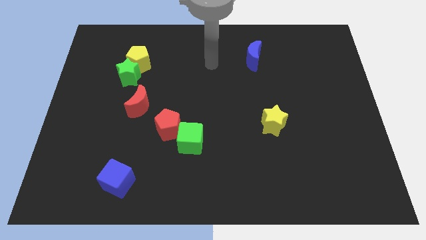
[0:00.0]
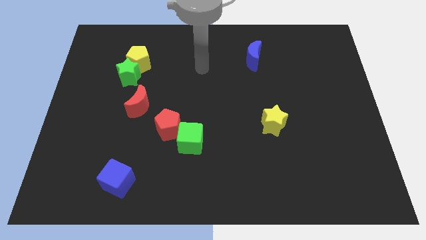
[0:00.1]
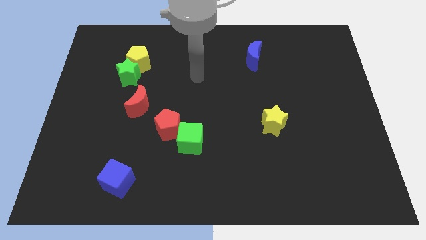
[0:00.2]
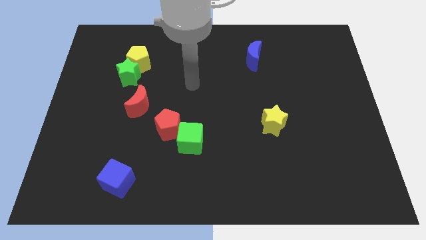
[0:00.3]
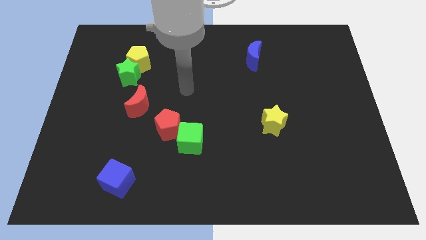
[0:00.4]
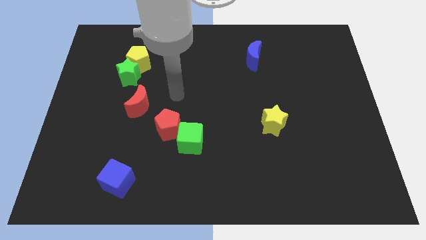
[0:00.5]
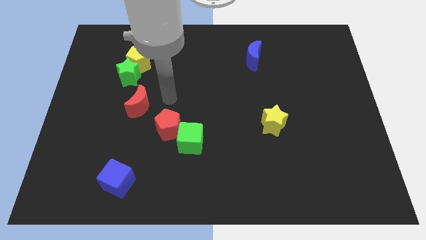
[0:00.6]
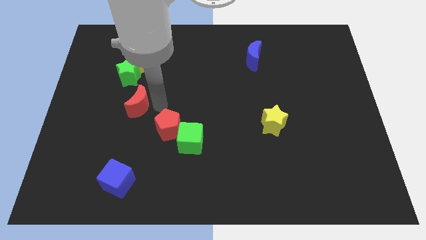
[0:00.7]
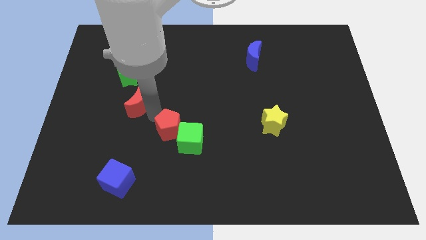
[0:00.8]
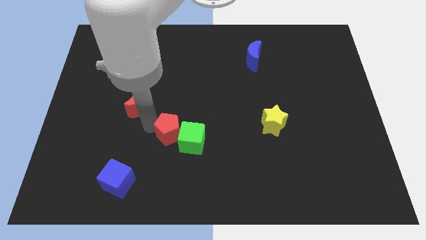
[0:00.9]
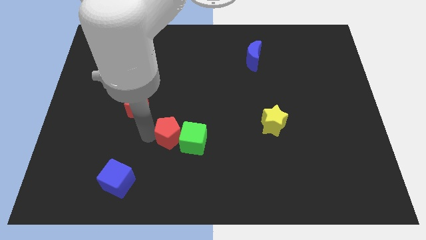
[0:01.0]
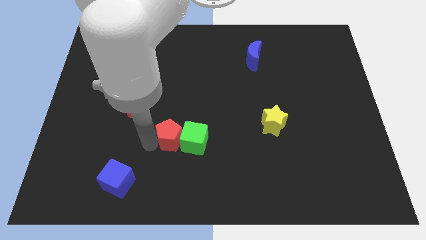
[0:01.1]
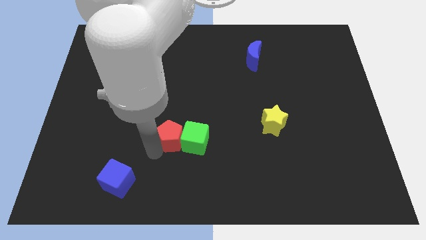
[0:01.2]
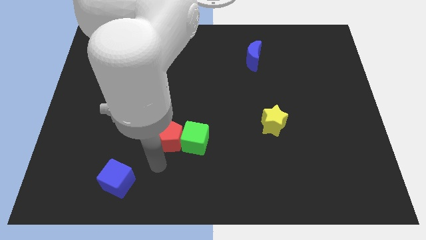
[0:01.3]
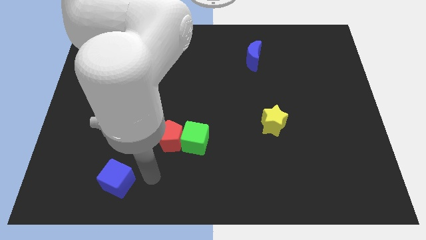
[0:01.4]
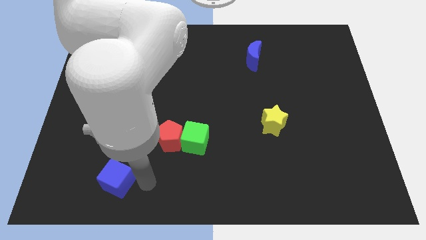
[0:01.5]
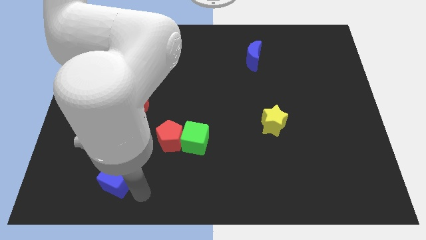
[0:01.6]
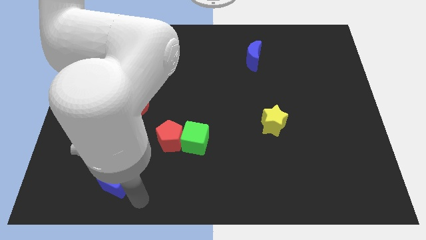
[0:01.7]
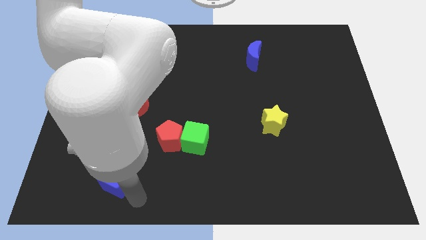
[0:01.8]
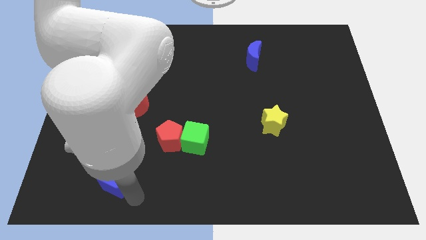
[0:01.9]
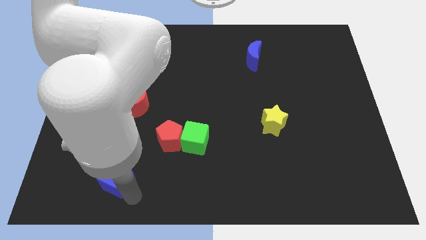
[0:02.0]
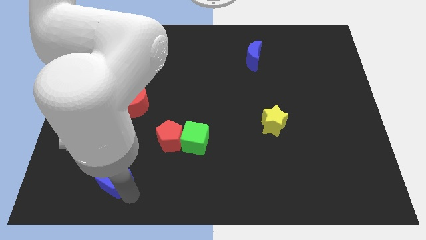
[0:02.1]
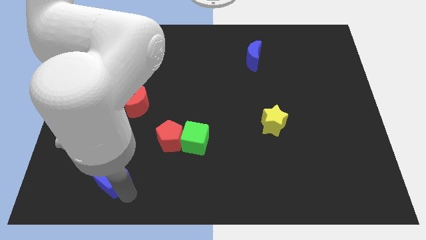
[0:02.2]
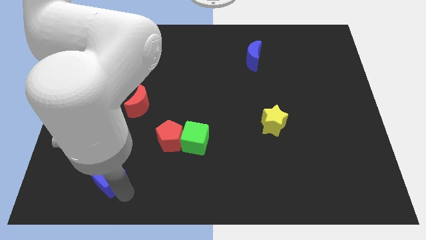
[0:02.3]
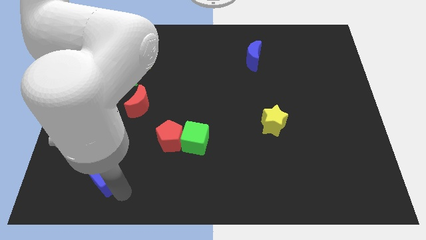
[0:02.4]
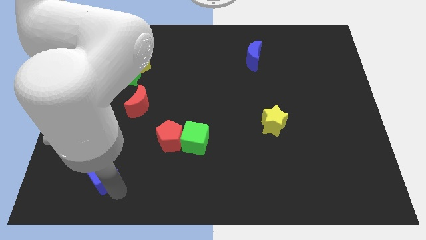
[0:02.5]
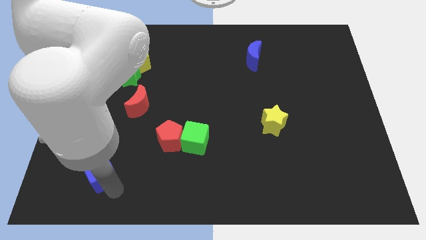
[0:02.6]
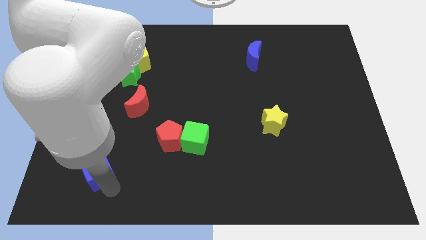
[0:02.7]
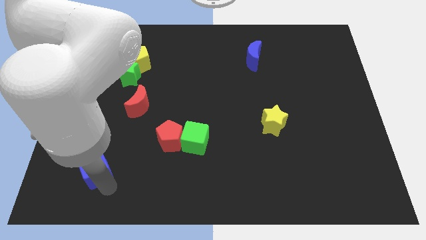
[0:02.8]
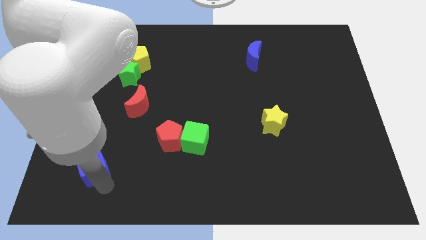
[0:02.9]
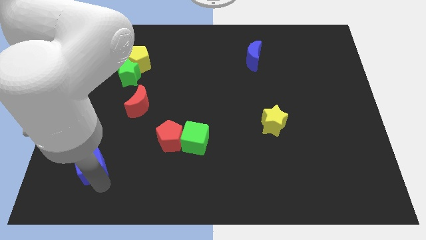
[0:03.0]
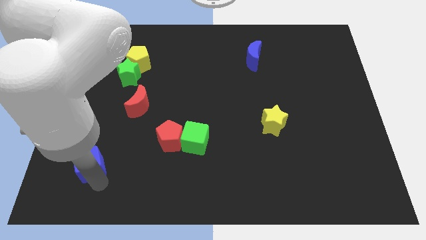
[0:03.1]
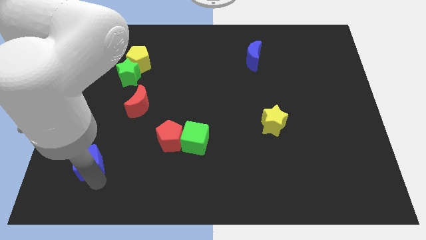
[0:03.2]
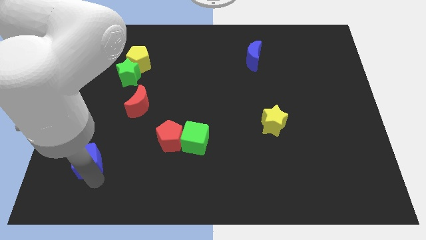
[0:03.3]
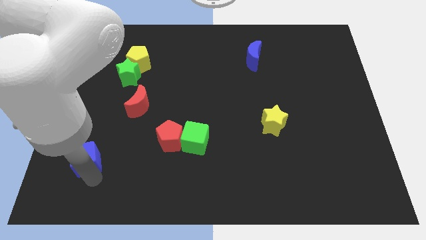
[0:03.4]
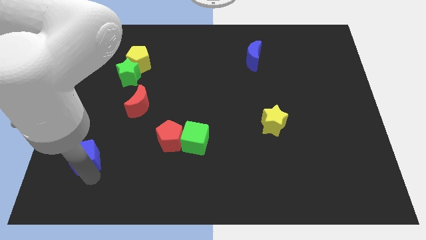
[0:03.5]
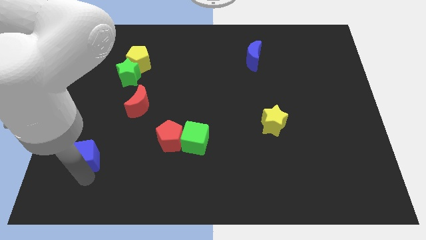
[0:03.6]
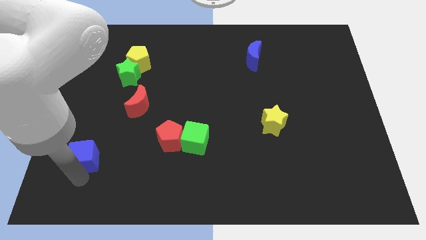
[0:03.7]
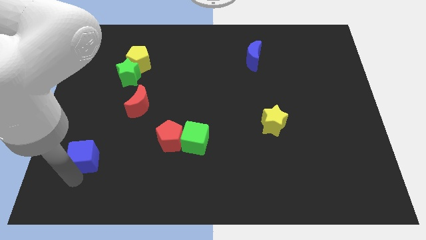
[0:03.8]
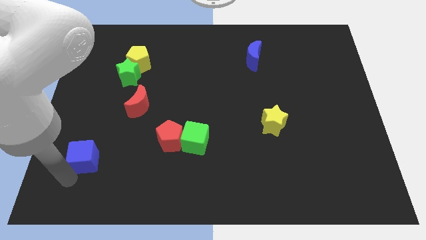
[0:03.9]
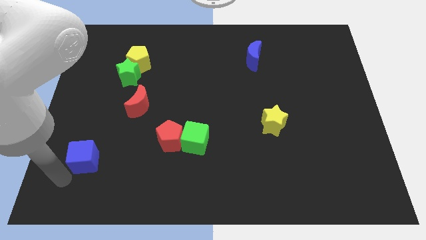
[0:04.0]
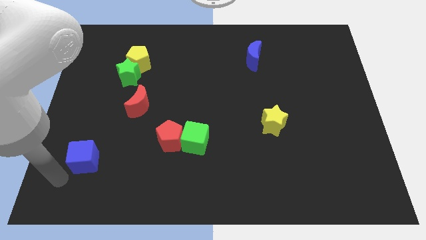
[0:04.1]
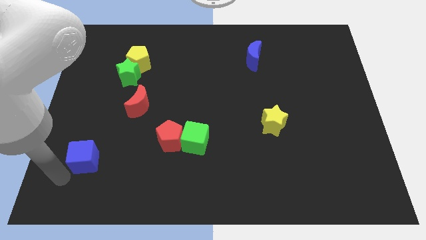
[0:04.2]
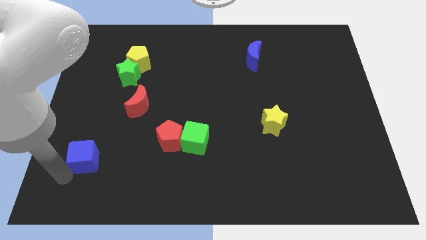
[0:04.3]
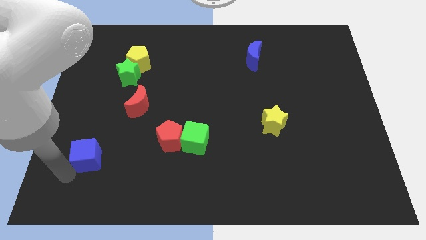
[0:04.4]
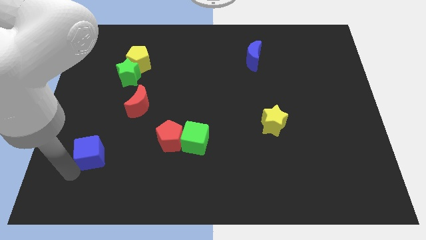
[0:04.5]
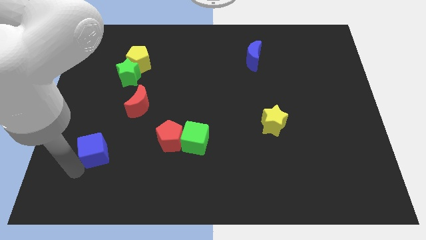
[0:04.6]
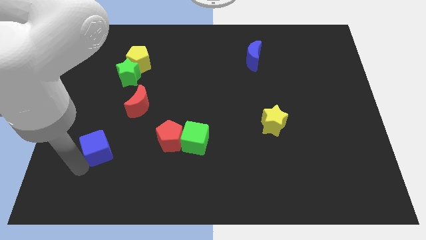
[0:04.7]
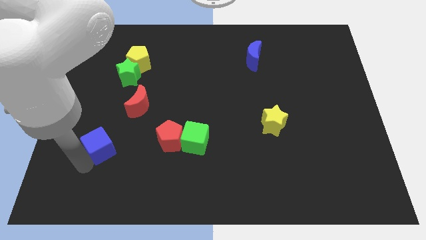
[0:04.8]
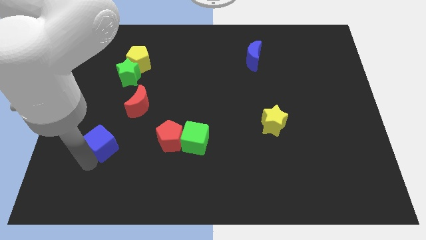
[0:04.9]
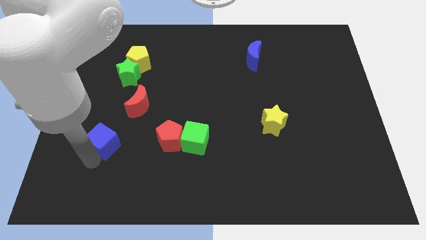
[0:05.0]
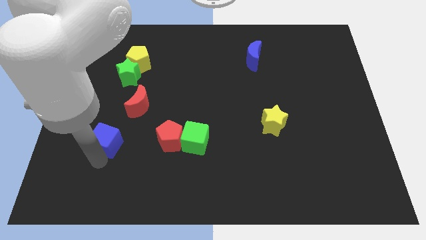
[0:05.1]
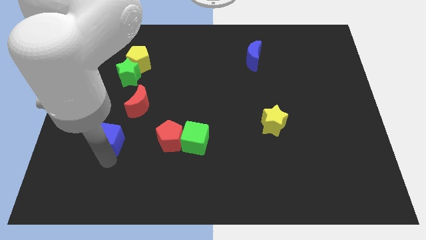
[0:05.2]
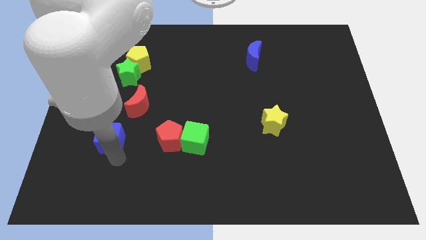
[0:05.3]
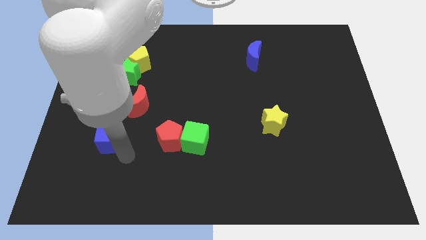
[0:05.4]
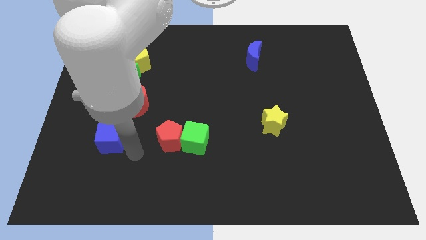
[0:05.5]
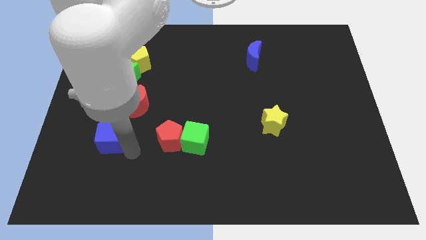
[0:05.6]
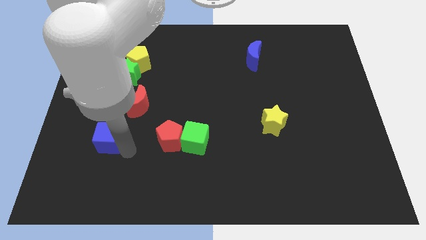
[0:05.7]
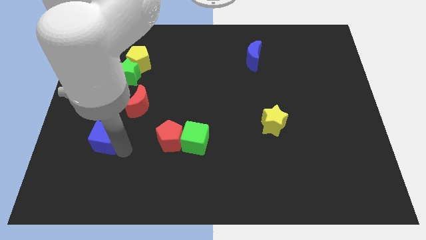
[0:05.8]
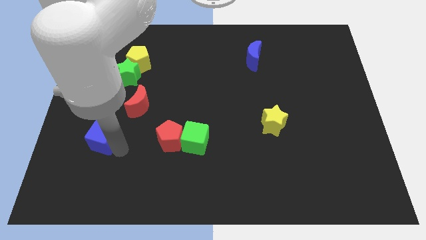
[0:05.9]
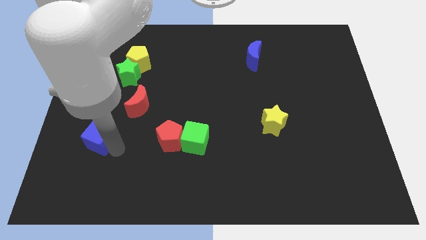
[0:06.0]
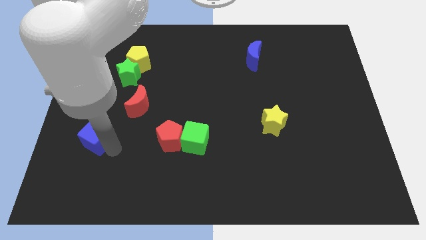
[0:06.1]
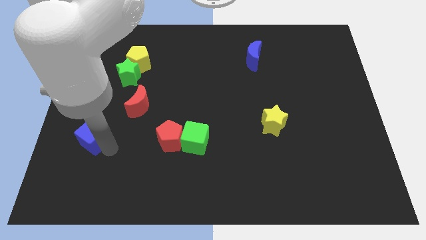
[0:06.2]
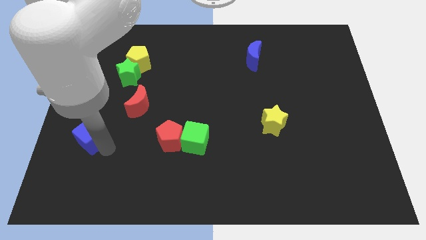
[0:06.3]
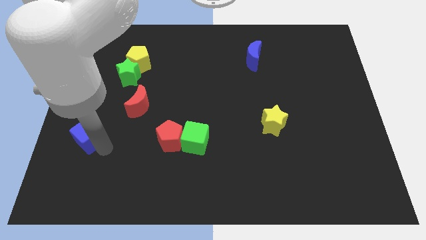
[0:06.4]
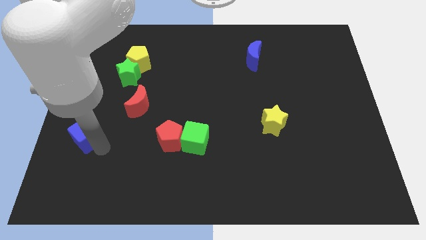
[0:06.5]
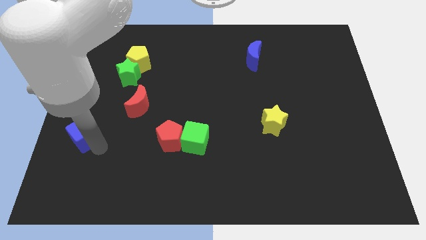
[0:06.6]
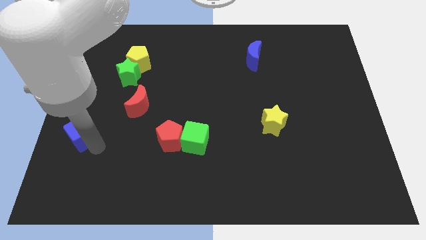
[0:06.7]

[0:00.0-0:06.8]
push the blue cube to the center left

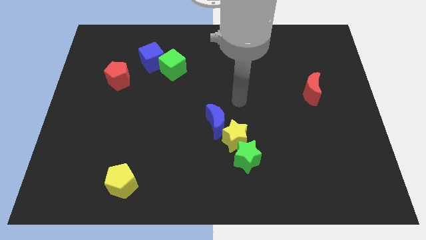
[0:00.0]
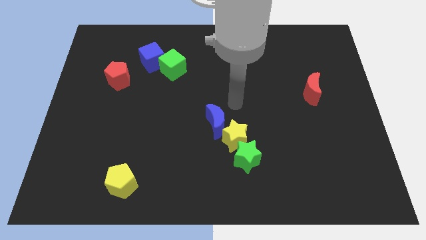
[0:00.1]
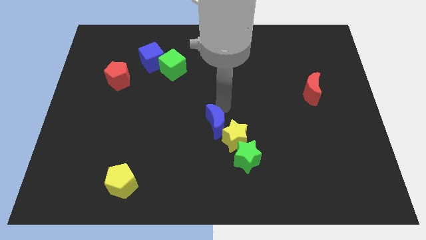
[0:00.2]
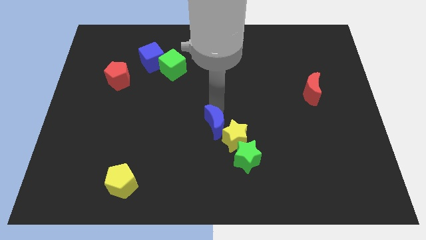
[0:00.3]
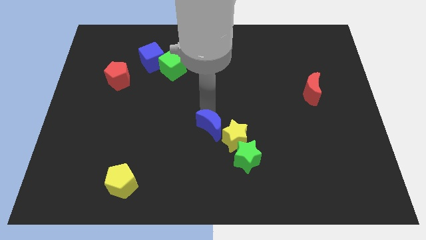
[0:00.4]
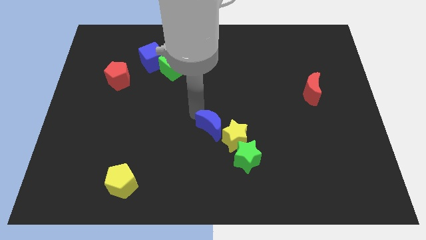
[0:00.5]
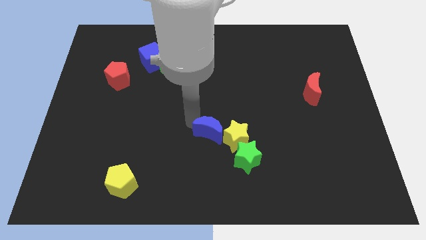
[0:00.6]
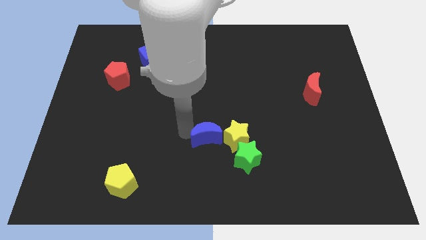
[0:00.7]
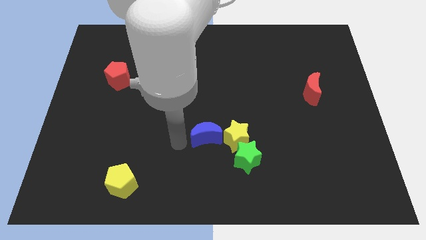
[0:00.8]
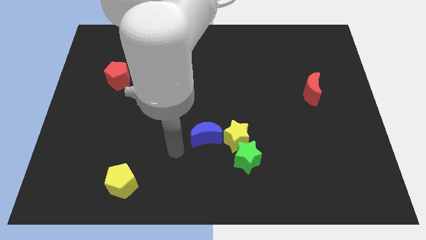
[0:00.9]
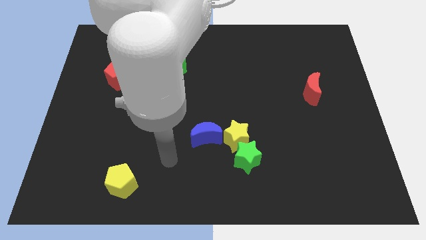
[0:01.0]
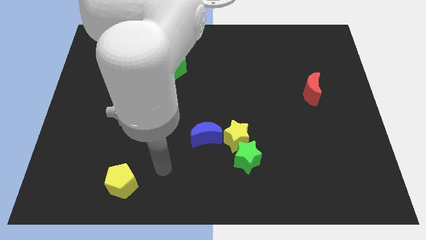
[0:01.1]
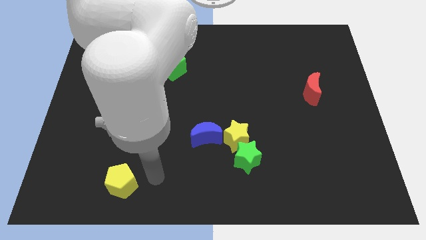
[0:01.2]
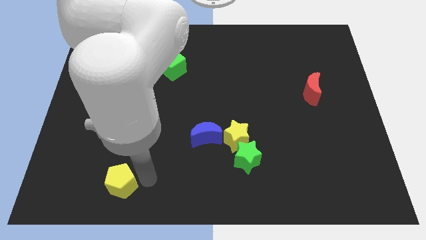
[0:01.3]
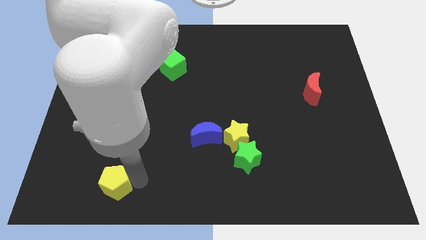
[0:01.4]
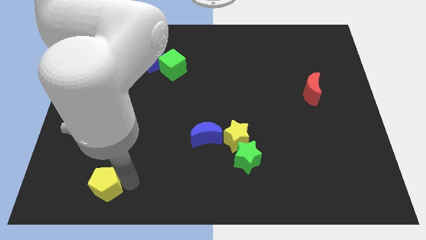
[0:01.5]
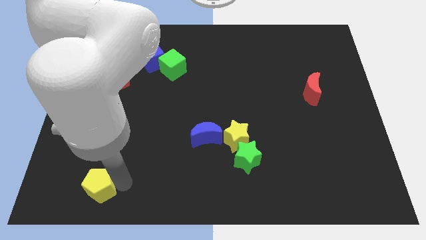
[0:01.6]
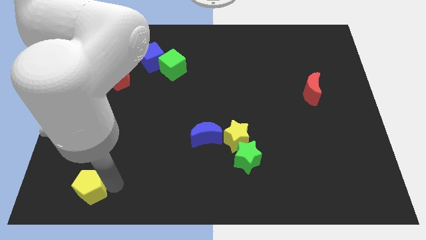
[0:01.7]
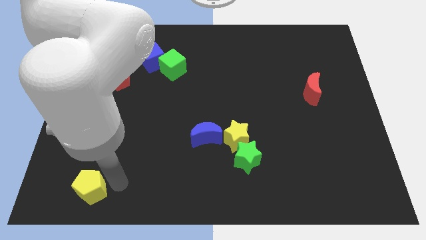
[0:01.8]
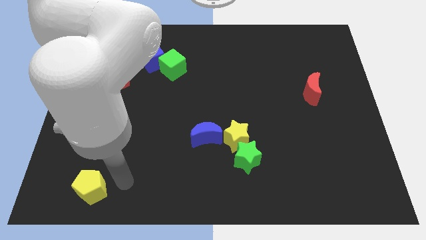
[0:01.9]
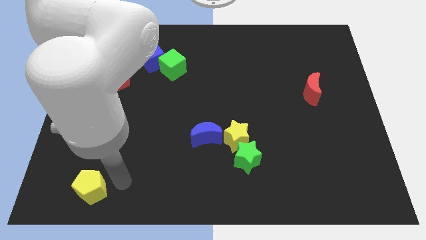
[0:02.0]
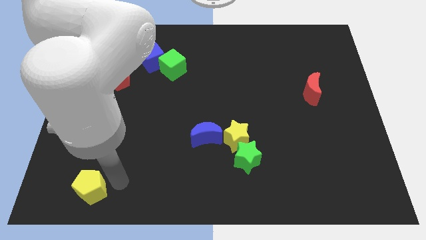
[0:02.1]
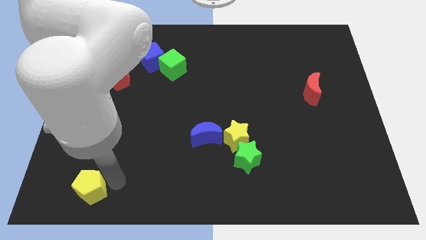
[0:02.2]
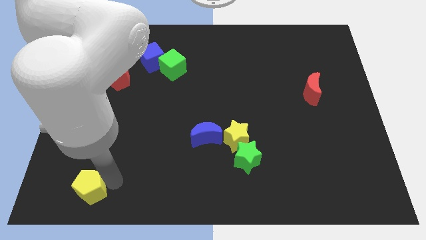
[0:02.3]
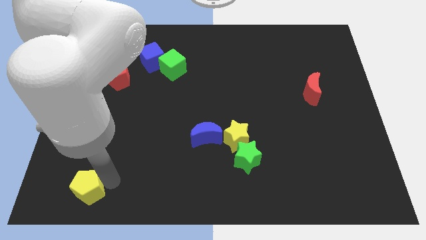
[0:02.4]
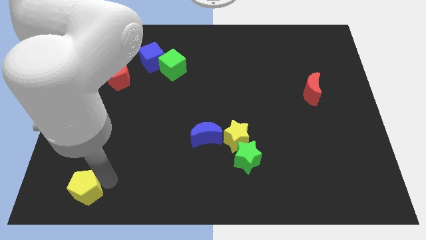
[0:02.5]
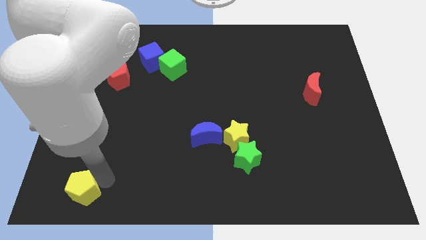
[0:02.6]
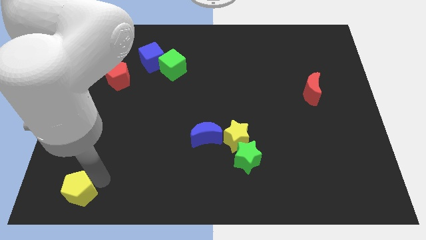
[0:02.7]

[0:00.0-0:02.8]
put the yellow pentagon to the lower left corner
